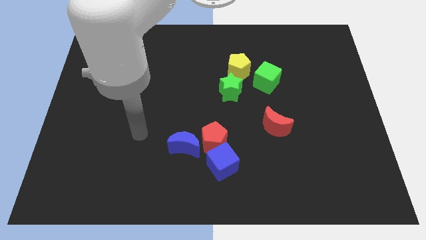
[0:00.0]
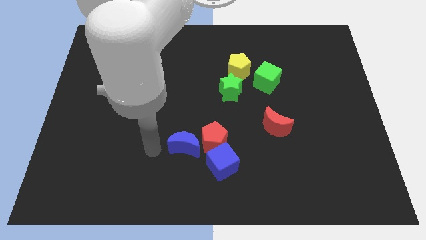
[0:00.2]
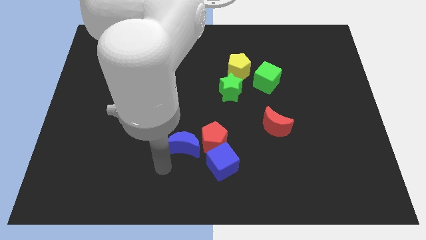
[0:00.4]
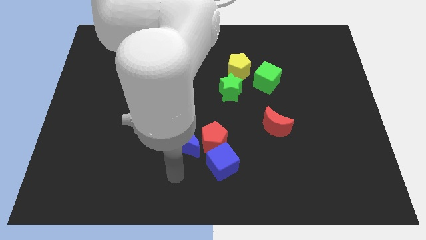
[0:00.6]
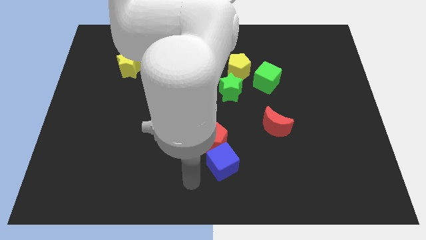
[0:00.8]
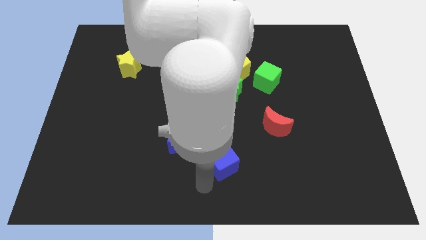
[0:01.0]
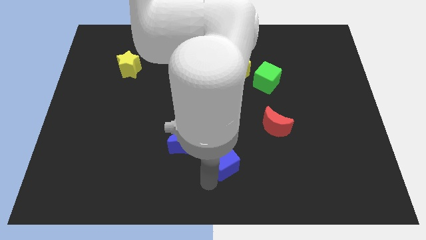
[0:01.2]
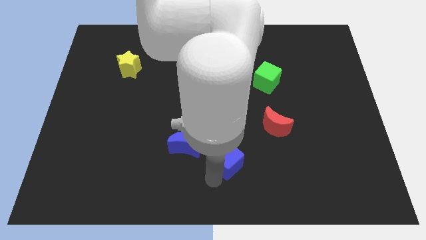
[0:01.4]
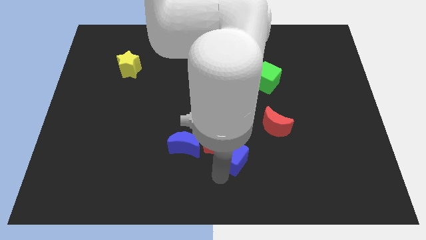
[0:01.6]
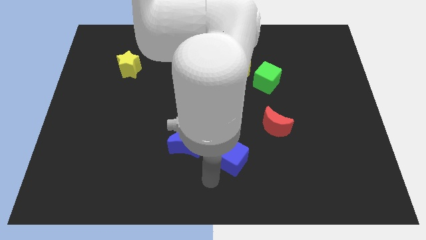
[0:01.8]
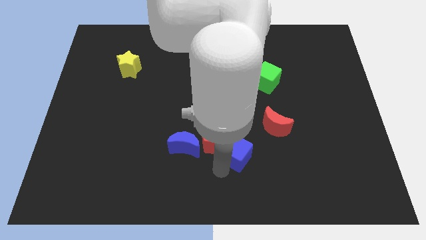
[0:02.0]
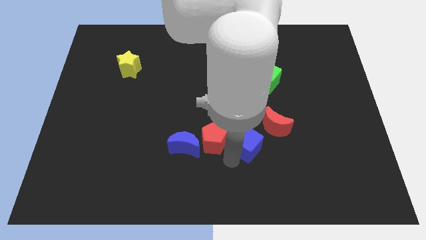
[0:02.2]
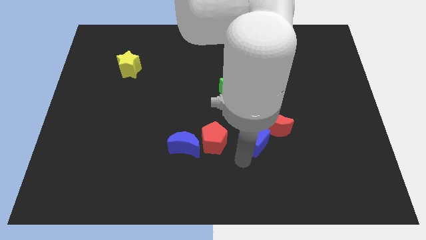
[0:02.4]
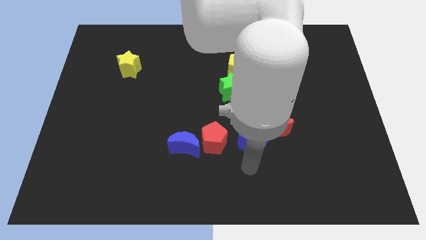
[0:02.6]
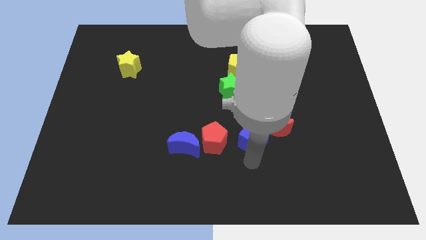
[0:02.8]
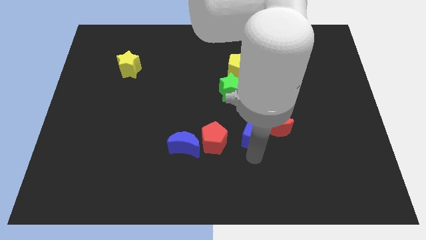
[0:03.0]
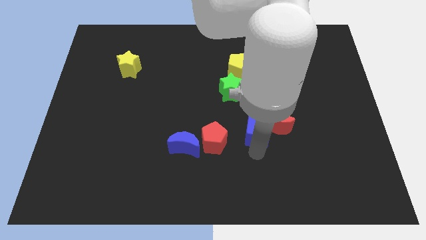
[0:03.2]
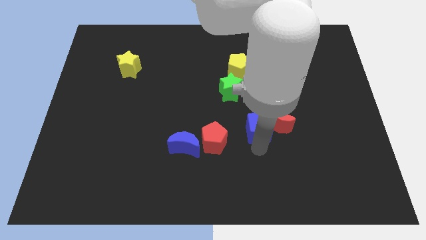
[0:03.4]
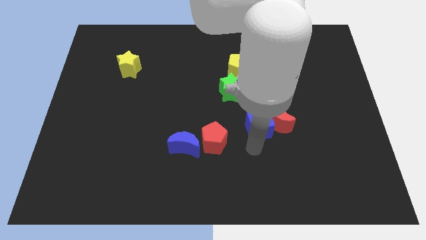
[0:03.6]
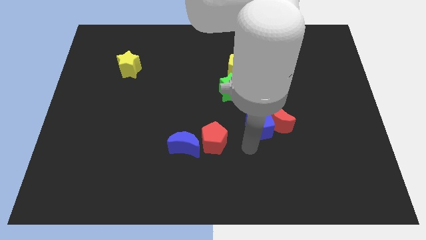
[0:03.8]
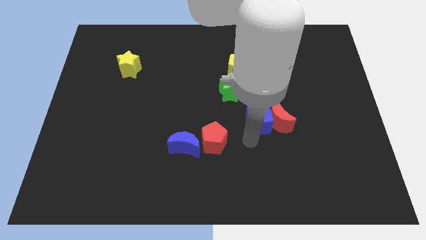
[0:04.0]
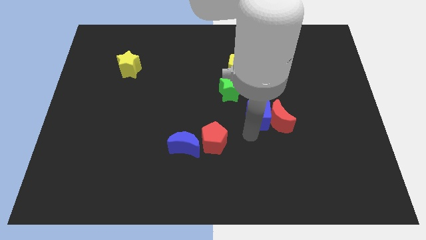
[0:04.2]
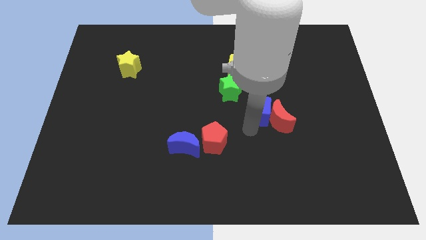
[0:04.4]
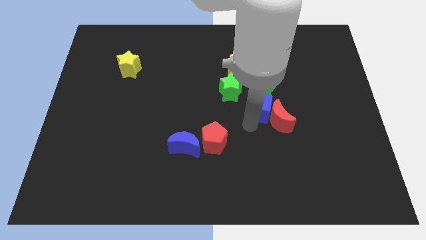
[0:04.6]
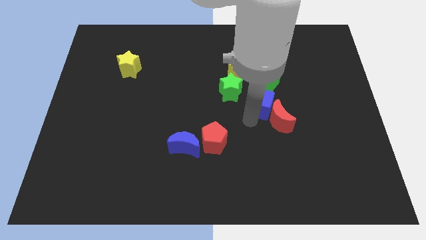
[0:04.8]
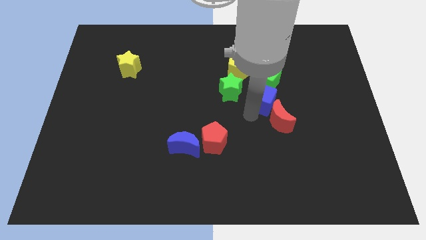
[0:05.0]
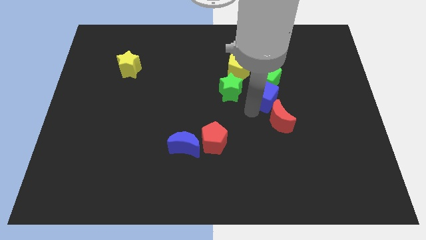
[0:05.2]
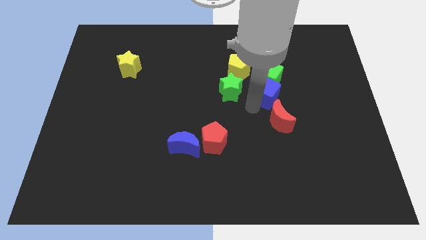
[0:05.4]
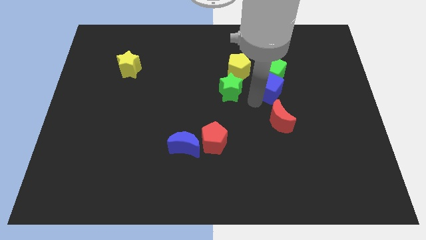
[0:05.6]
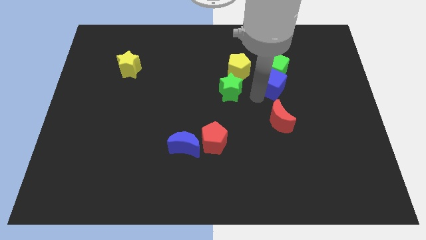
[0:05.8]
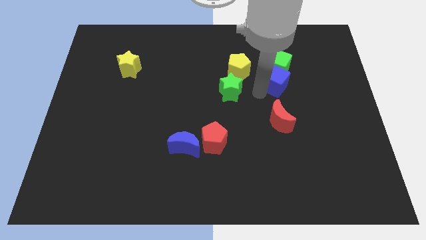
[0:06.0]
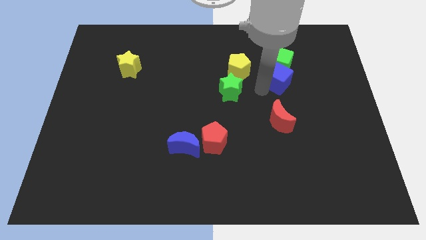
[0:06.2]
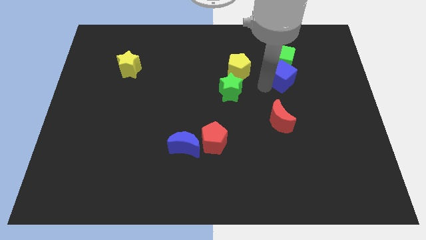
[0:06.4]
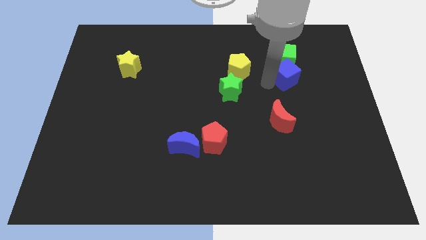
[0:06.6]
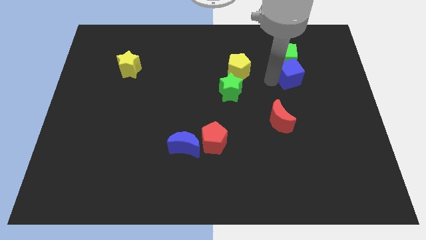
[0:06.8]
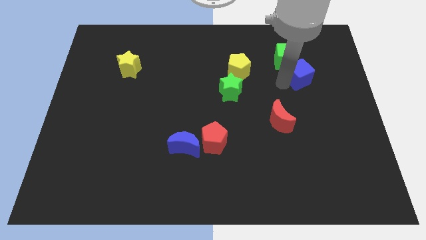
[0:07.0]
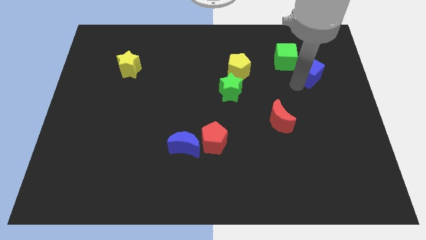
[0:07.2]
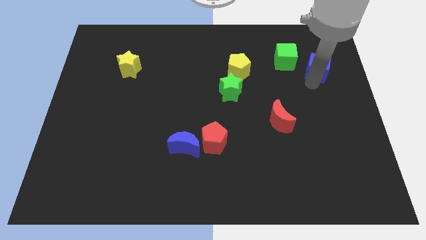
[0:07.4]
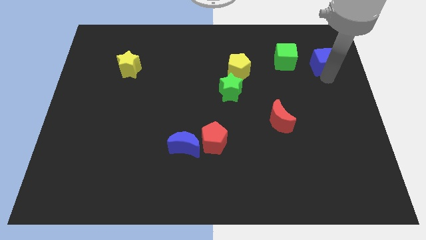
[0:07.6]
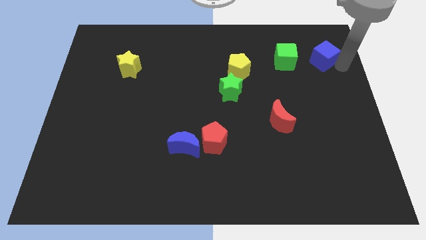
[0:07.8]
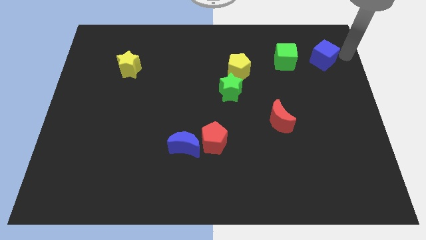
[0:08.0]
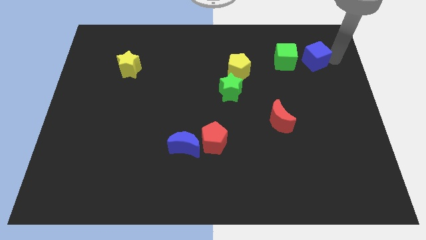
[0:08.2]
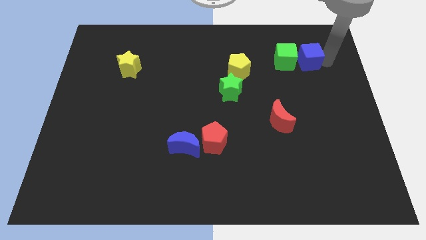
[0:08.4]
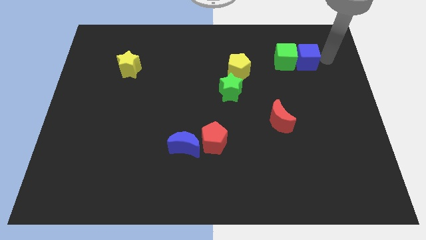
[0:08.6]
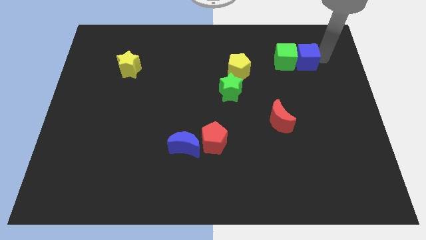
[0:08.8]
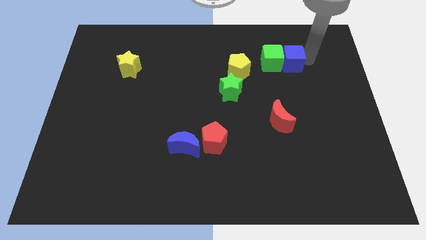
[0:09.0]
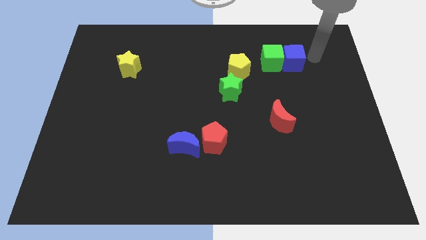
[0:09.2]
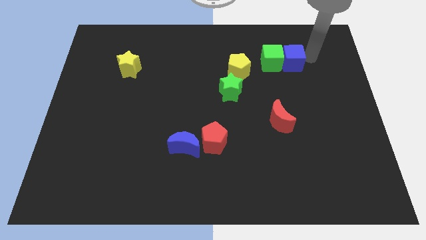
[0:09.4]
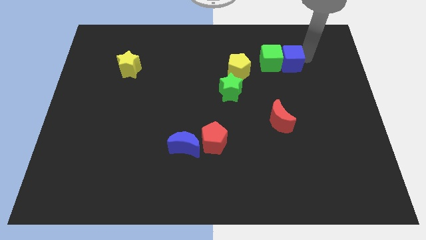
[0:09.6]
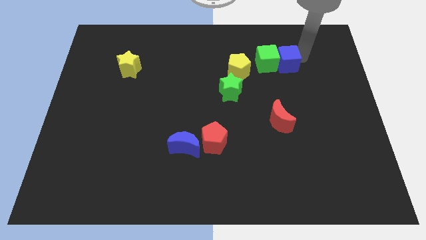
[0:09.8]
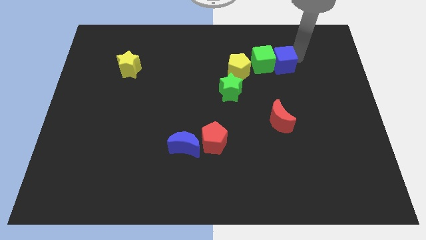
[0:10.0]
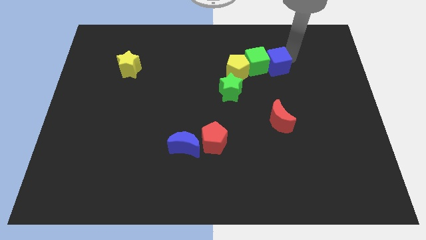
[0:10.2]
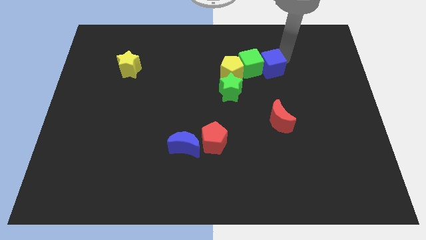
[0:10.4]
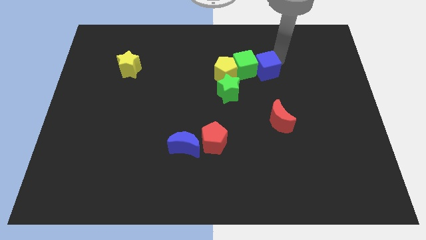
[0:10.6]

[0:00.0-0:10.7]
put the blue cube to the top right of the green star

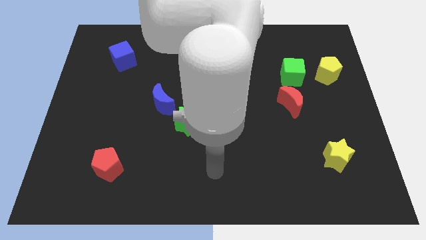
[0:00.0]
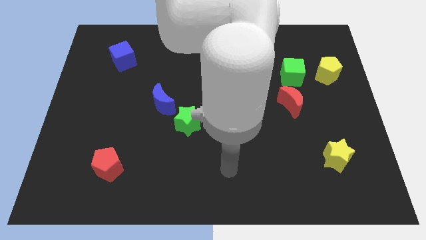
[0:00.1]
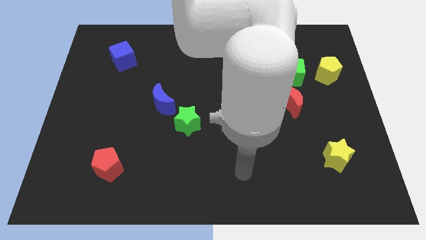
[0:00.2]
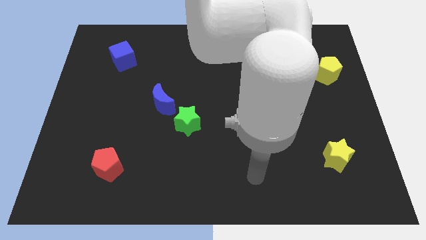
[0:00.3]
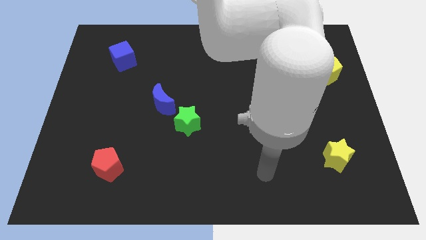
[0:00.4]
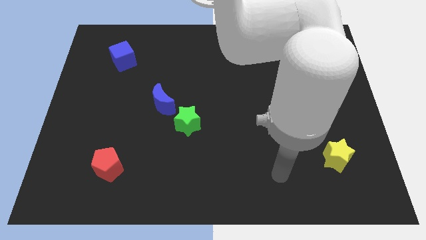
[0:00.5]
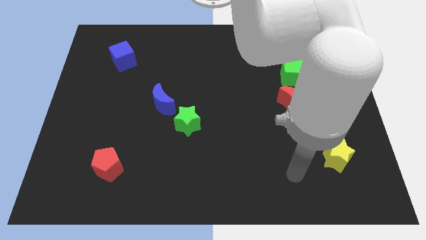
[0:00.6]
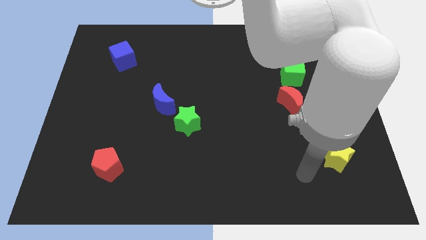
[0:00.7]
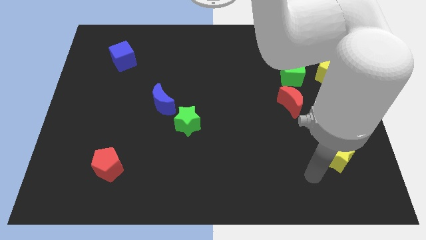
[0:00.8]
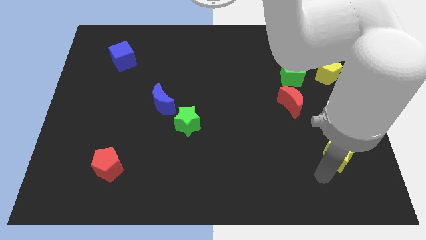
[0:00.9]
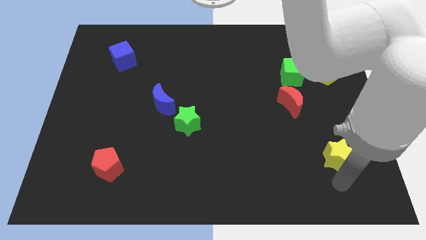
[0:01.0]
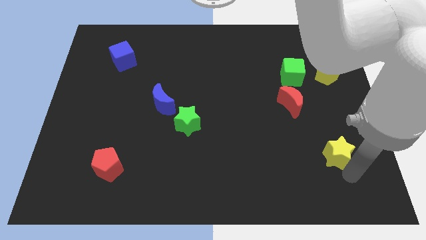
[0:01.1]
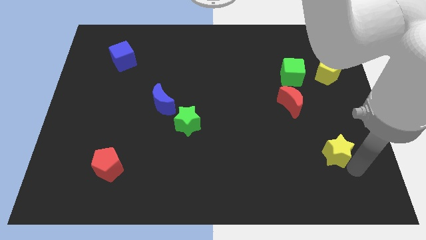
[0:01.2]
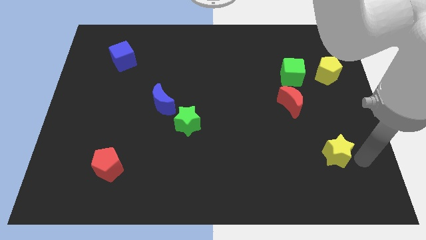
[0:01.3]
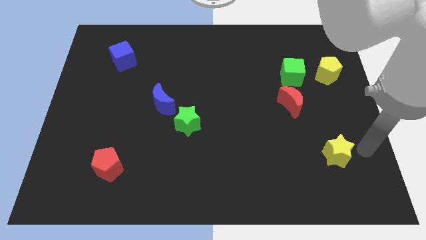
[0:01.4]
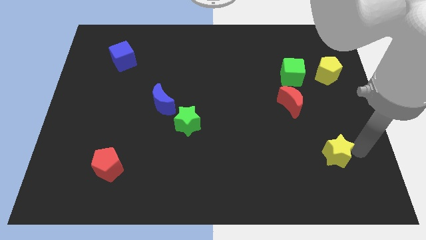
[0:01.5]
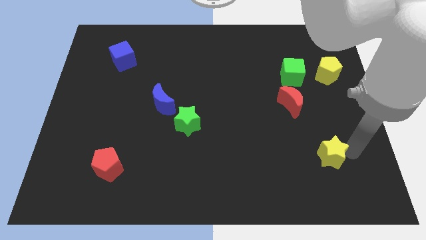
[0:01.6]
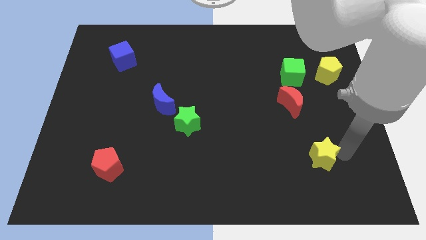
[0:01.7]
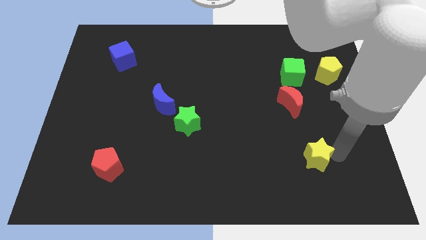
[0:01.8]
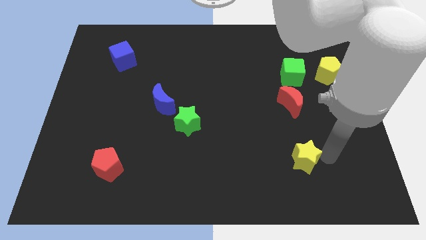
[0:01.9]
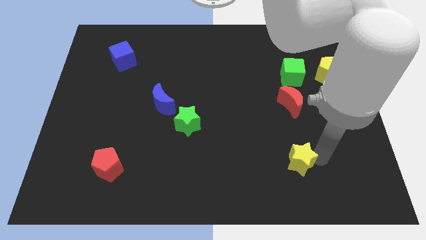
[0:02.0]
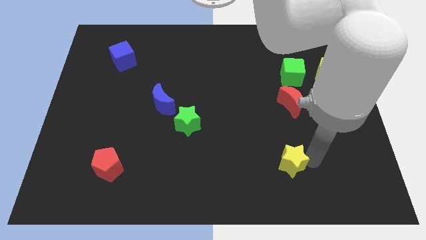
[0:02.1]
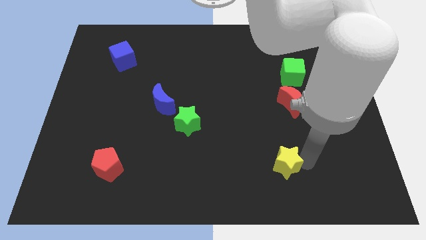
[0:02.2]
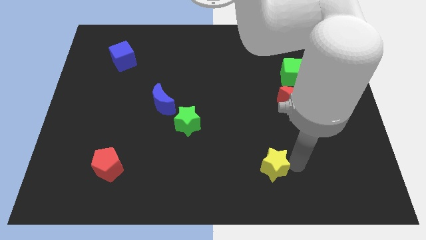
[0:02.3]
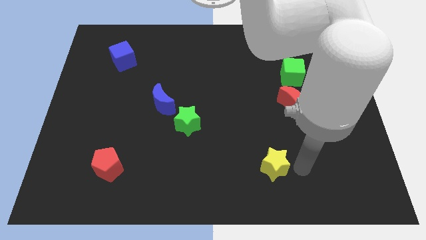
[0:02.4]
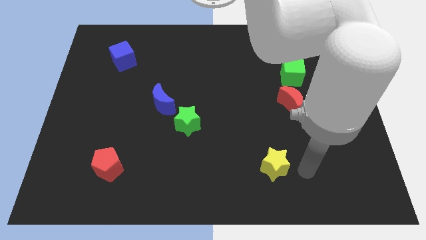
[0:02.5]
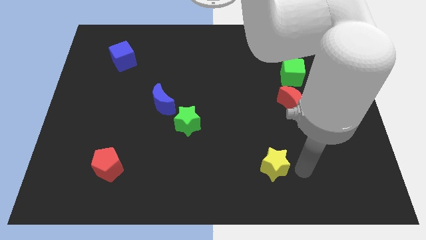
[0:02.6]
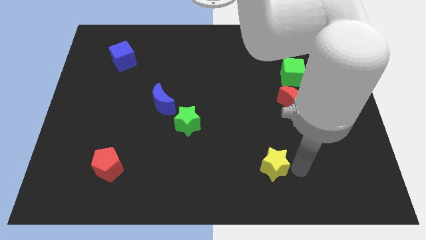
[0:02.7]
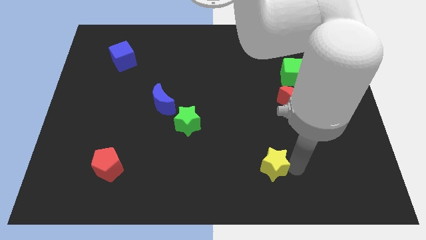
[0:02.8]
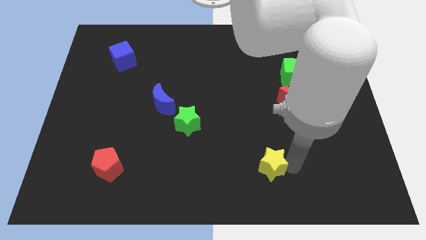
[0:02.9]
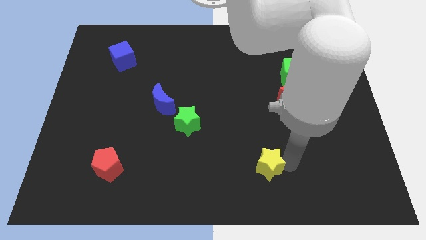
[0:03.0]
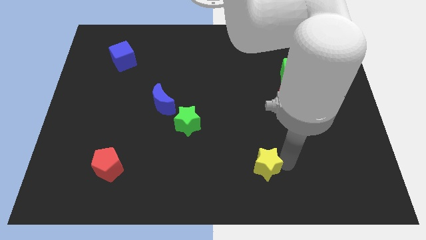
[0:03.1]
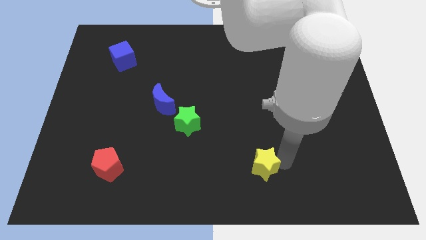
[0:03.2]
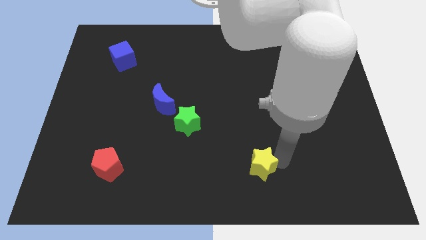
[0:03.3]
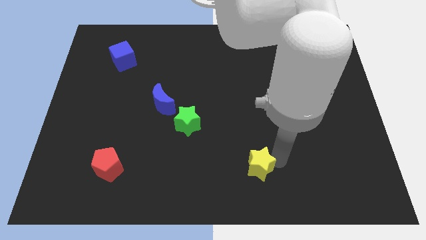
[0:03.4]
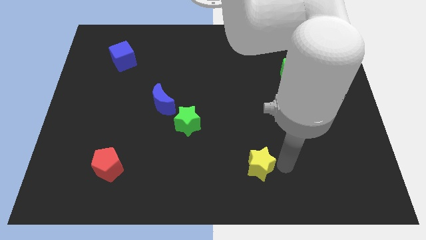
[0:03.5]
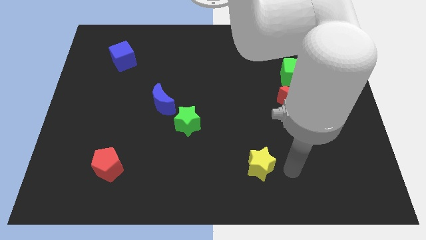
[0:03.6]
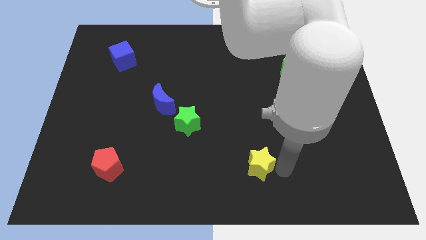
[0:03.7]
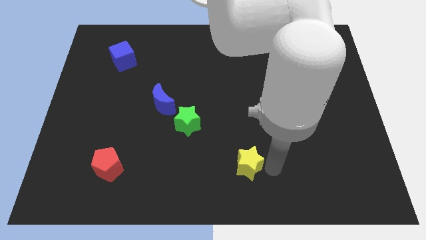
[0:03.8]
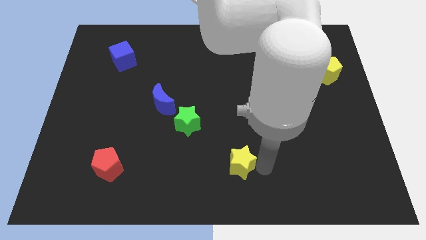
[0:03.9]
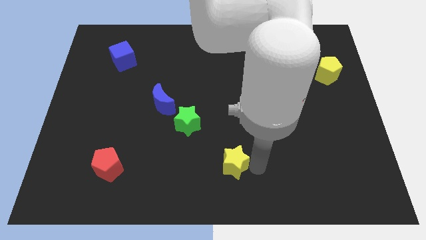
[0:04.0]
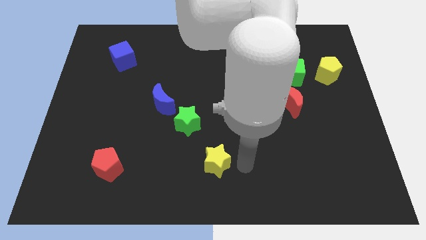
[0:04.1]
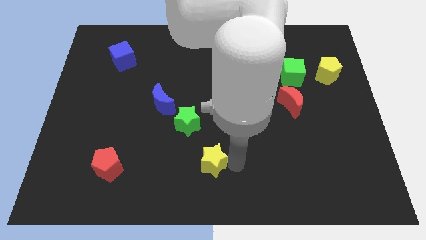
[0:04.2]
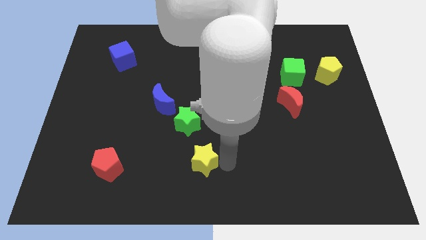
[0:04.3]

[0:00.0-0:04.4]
move the yellow star to the bottom of the green star
